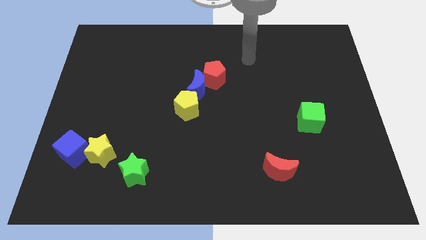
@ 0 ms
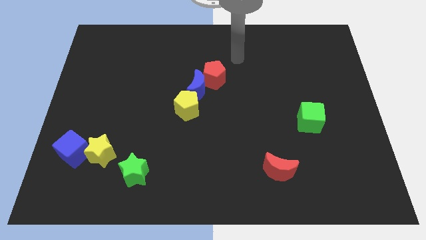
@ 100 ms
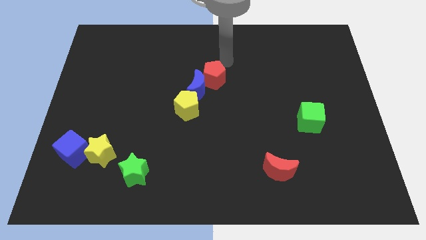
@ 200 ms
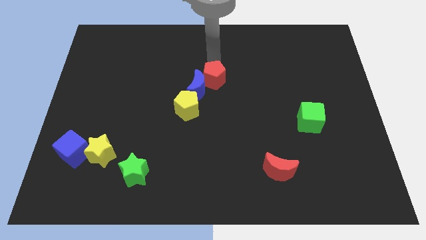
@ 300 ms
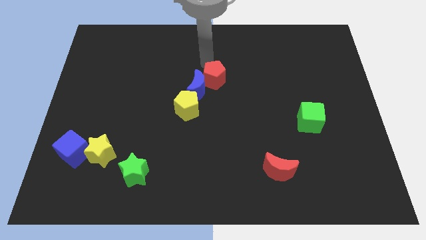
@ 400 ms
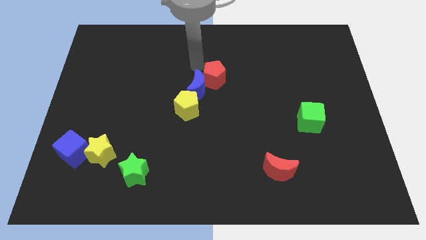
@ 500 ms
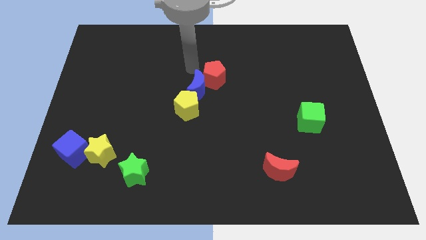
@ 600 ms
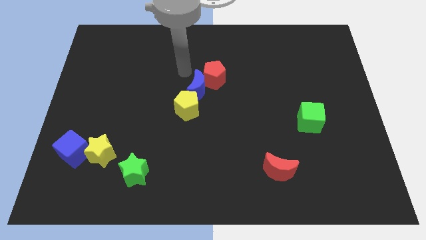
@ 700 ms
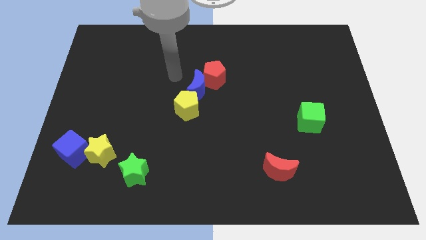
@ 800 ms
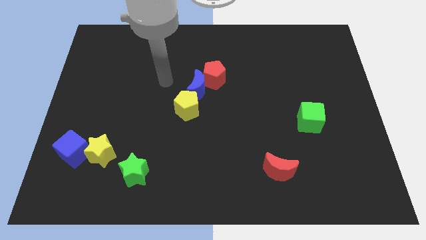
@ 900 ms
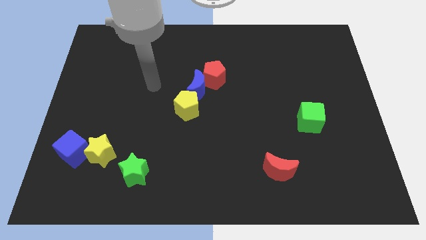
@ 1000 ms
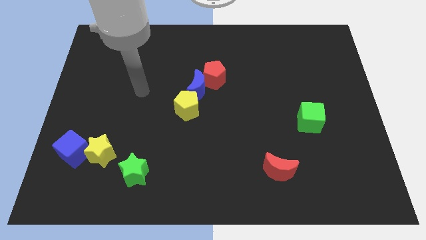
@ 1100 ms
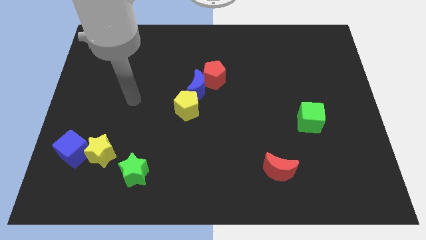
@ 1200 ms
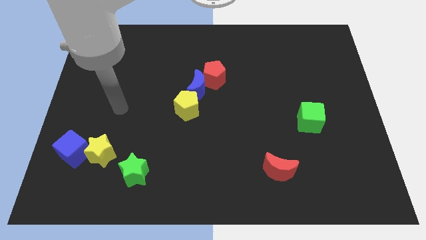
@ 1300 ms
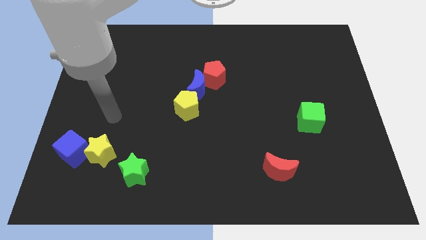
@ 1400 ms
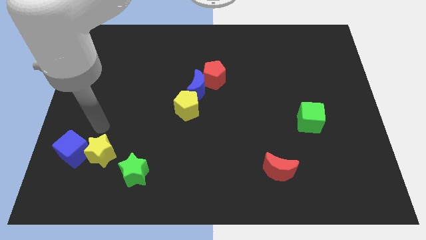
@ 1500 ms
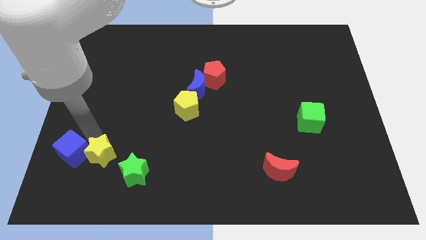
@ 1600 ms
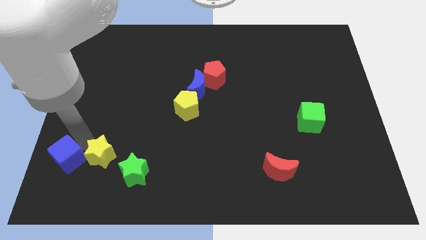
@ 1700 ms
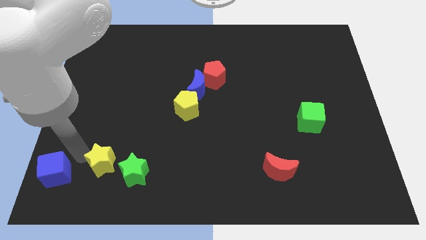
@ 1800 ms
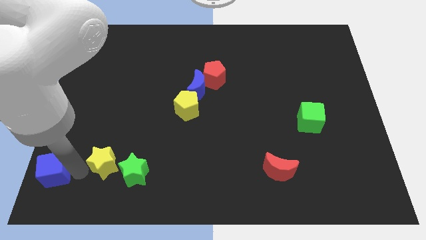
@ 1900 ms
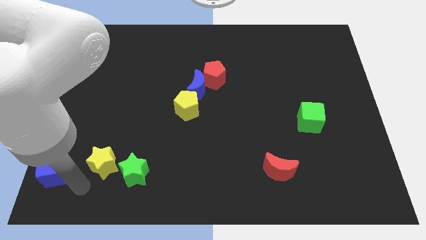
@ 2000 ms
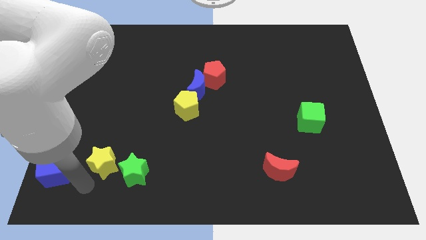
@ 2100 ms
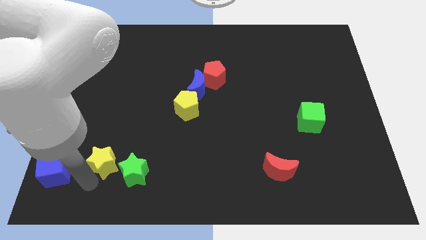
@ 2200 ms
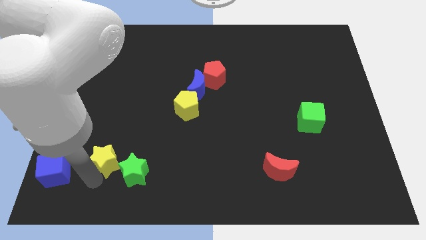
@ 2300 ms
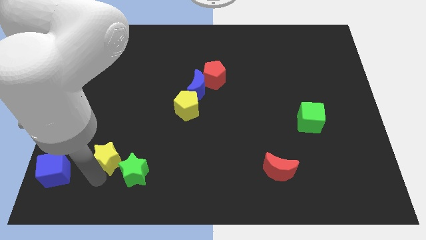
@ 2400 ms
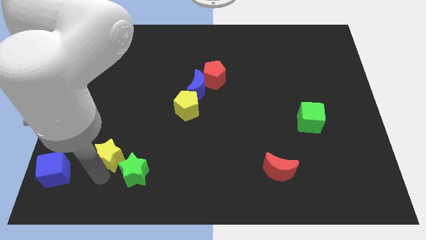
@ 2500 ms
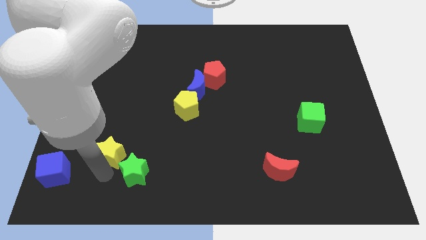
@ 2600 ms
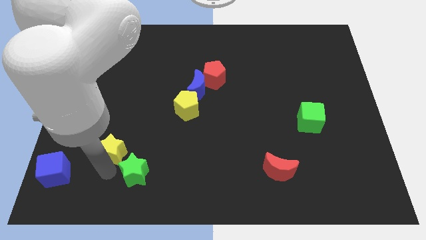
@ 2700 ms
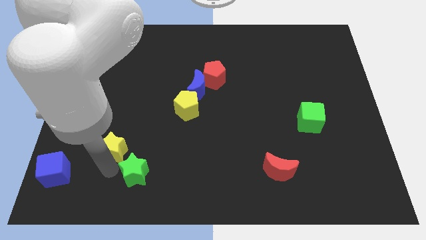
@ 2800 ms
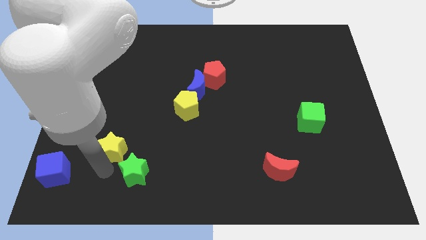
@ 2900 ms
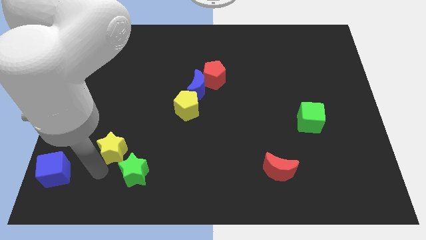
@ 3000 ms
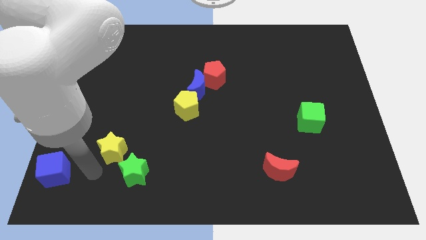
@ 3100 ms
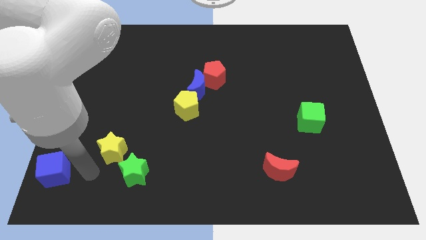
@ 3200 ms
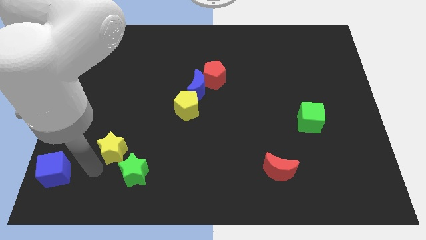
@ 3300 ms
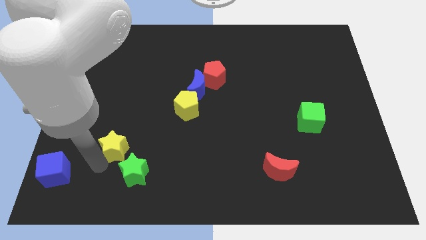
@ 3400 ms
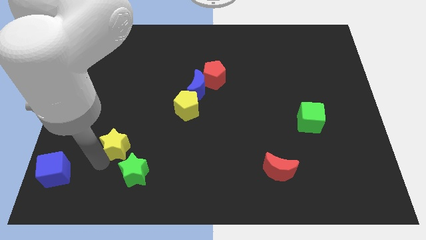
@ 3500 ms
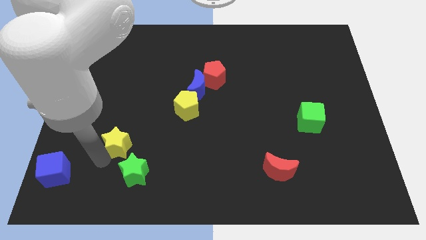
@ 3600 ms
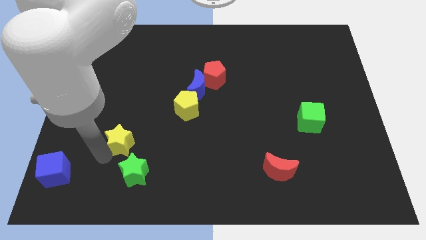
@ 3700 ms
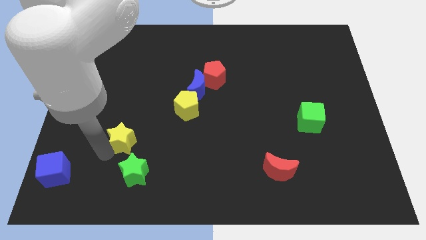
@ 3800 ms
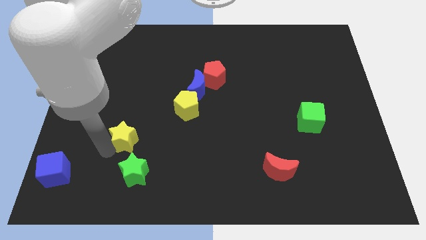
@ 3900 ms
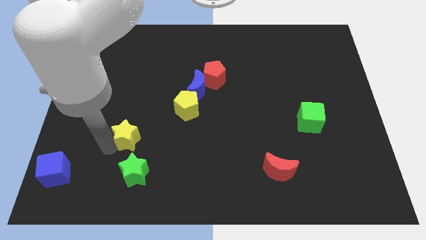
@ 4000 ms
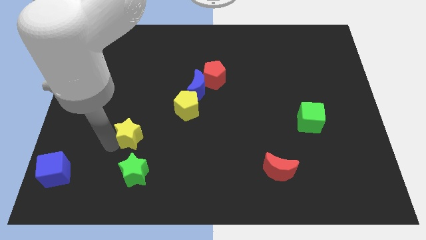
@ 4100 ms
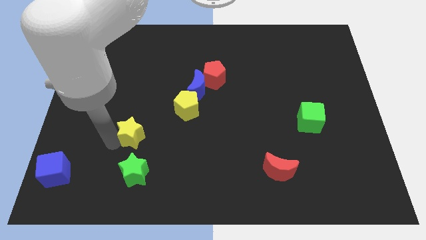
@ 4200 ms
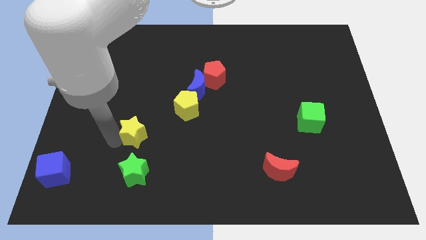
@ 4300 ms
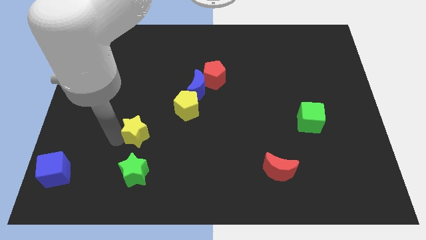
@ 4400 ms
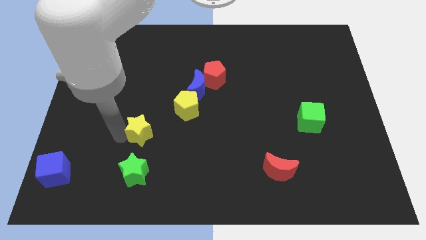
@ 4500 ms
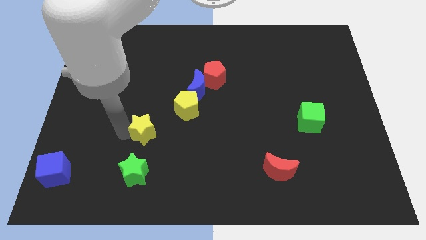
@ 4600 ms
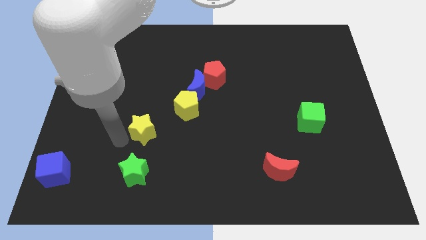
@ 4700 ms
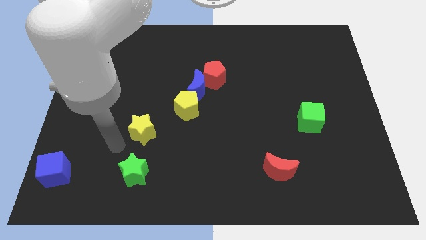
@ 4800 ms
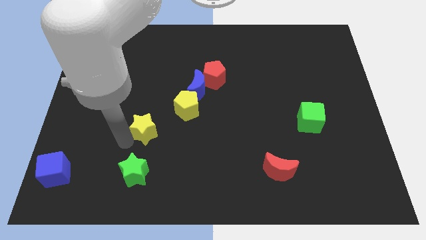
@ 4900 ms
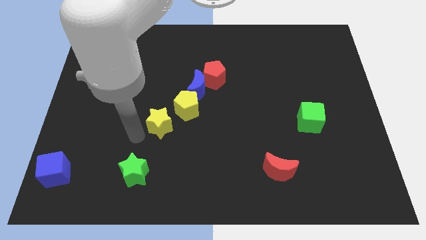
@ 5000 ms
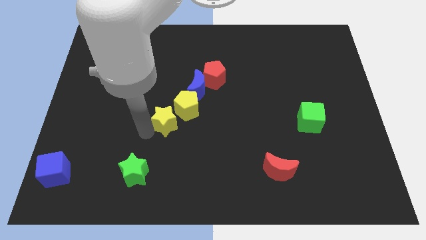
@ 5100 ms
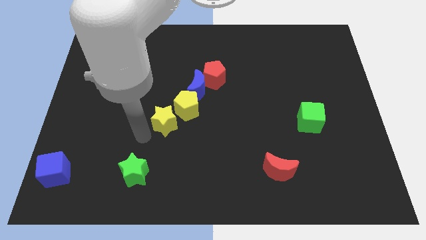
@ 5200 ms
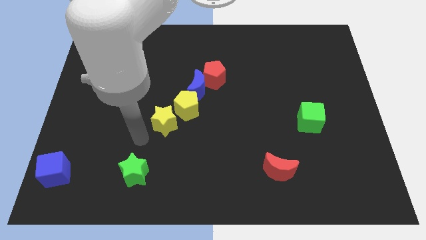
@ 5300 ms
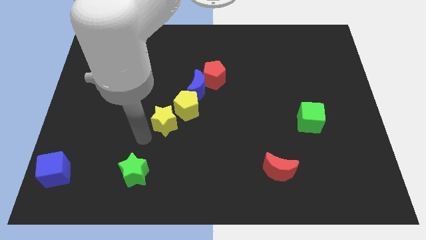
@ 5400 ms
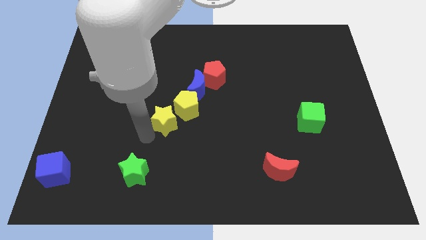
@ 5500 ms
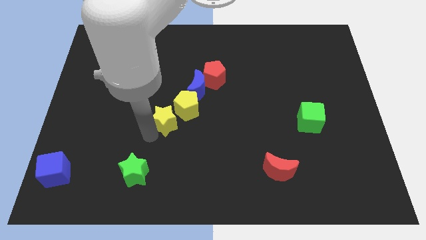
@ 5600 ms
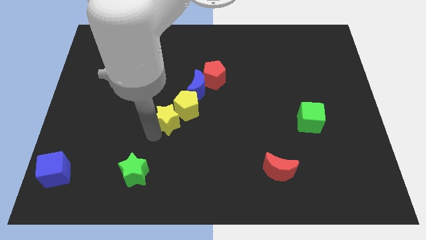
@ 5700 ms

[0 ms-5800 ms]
move the yellow star close to the yellow pentagon

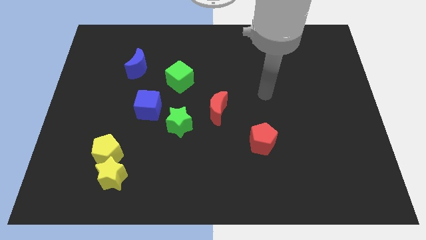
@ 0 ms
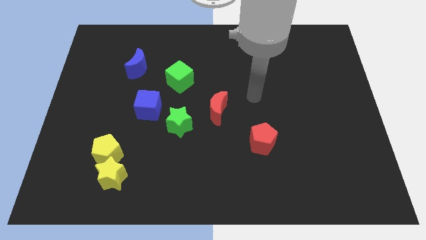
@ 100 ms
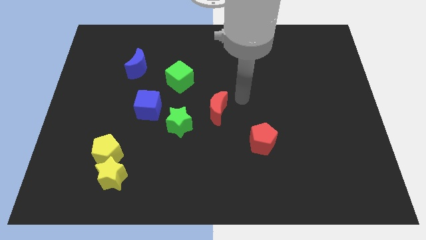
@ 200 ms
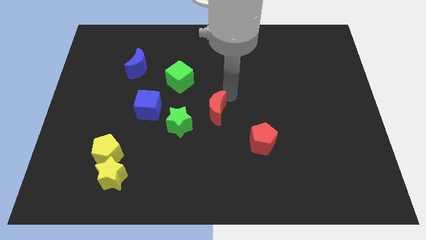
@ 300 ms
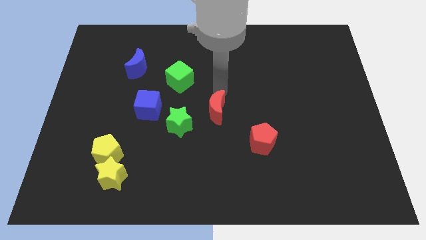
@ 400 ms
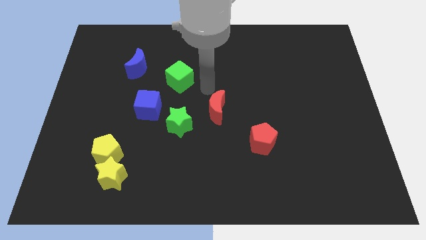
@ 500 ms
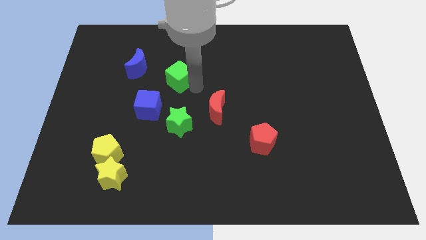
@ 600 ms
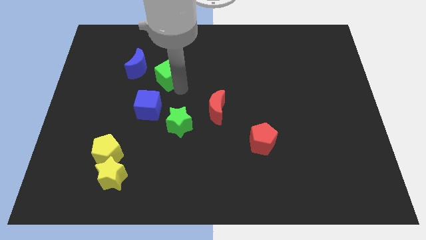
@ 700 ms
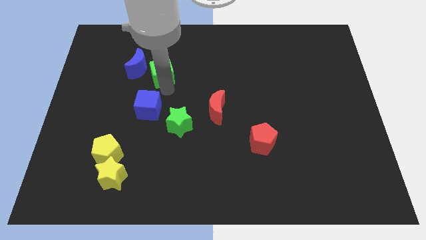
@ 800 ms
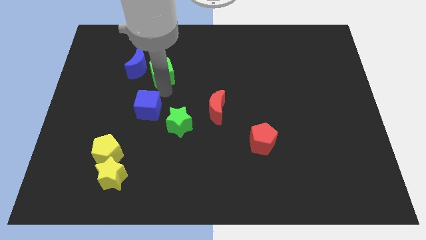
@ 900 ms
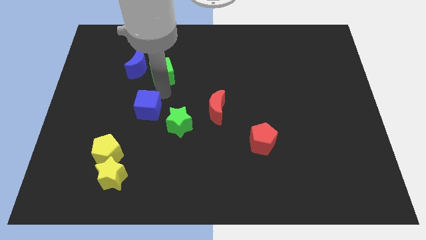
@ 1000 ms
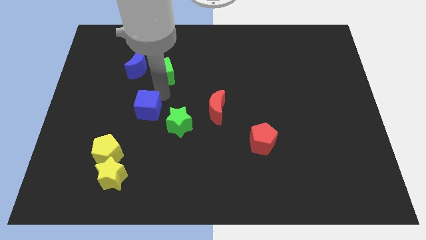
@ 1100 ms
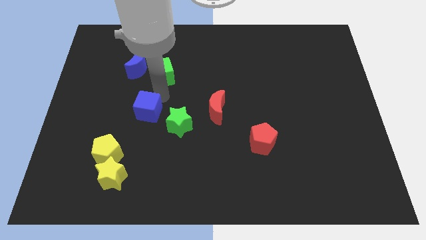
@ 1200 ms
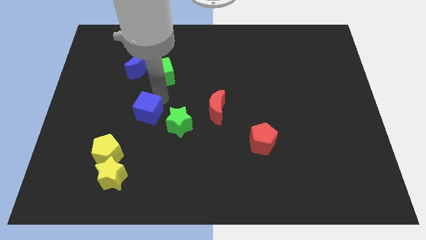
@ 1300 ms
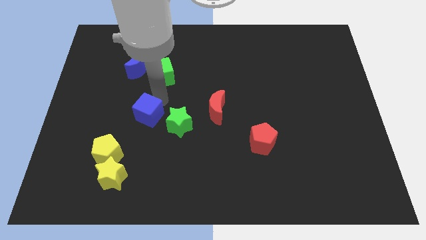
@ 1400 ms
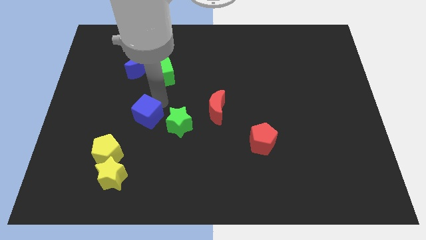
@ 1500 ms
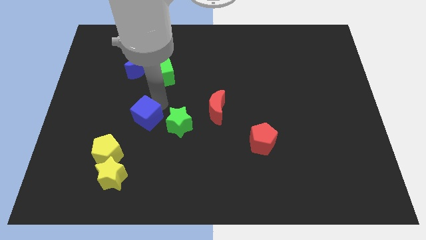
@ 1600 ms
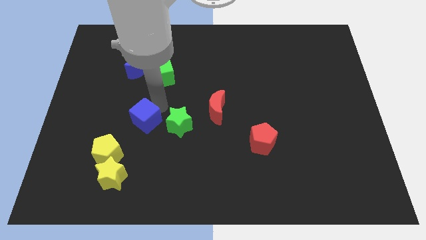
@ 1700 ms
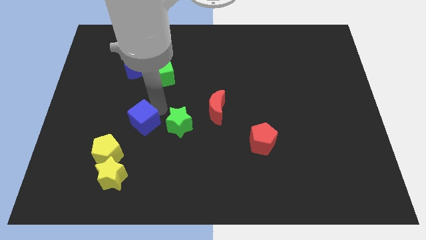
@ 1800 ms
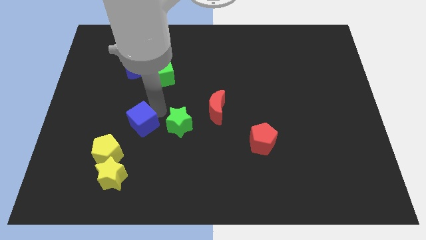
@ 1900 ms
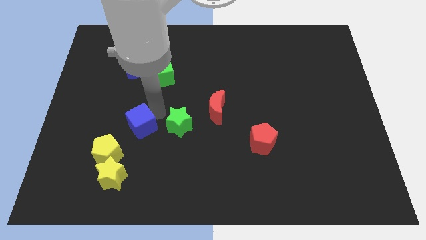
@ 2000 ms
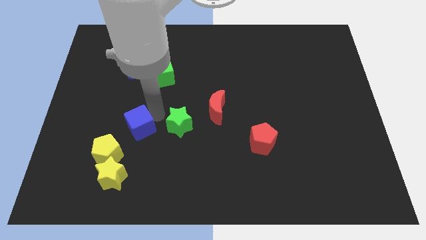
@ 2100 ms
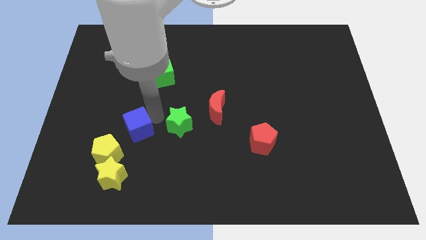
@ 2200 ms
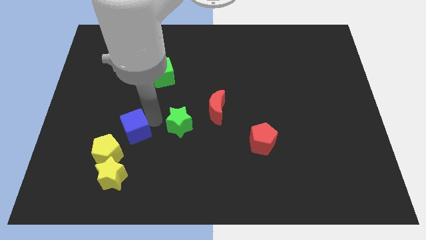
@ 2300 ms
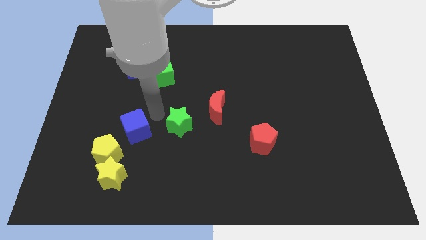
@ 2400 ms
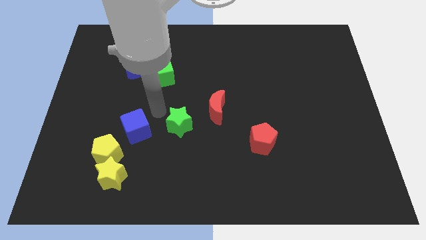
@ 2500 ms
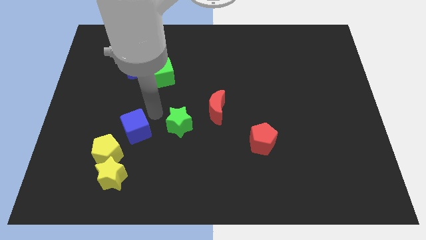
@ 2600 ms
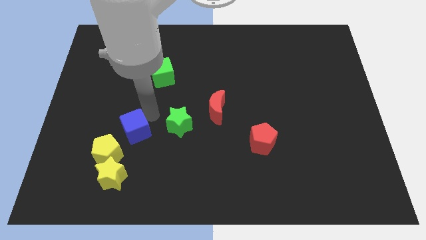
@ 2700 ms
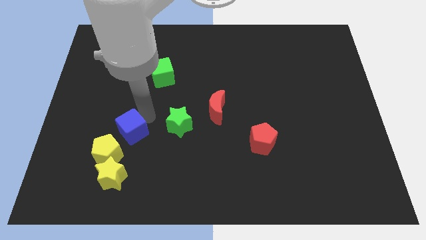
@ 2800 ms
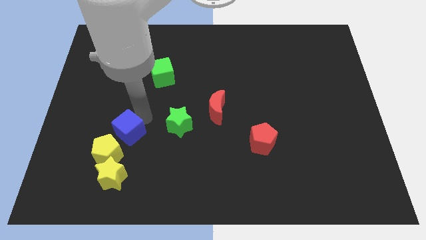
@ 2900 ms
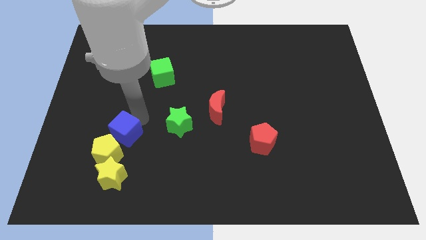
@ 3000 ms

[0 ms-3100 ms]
push the blue cube to the yellow pentagon
